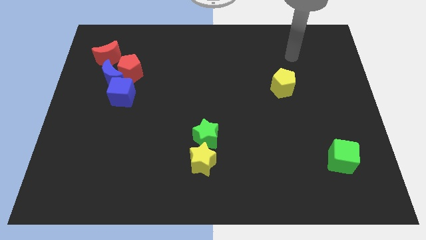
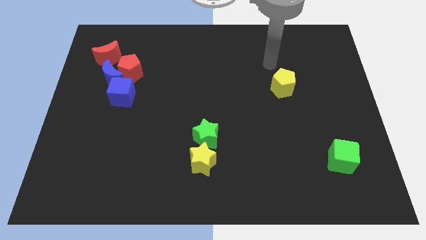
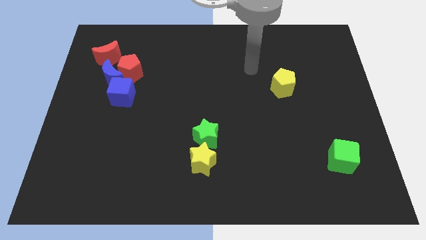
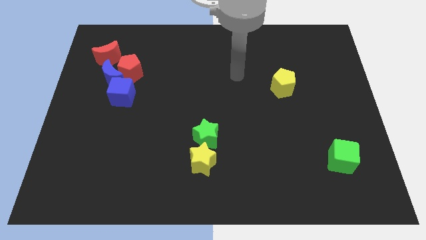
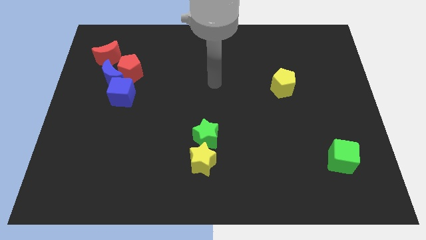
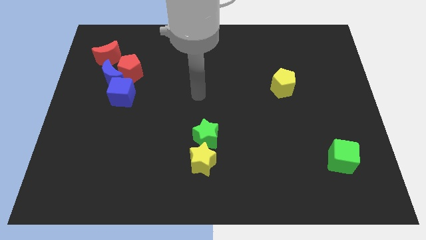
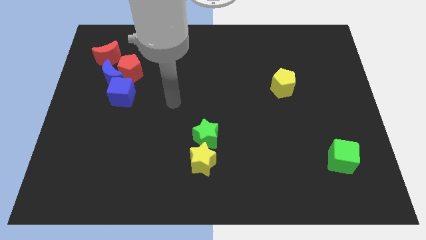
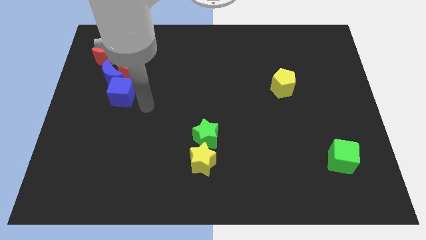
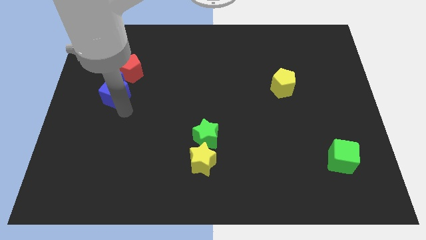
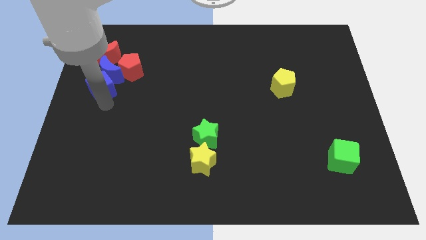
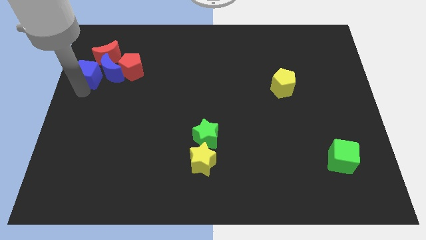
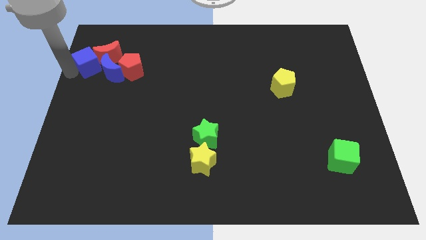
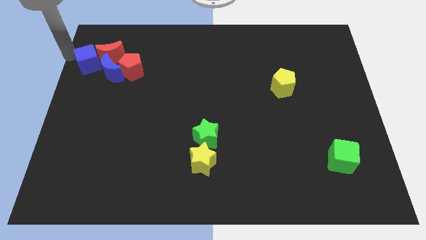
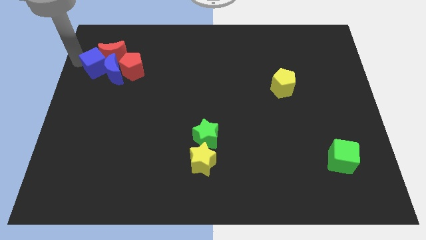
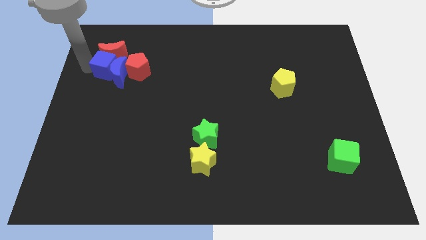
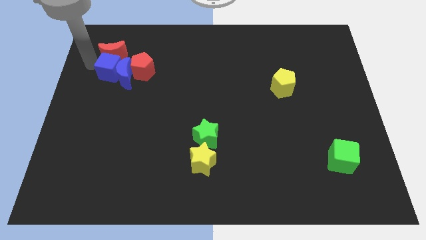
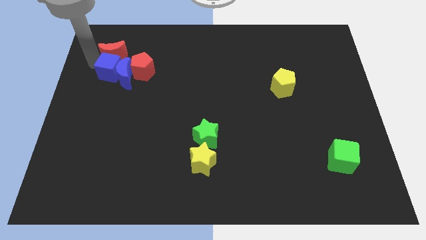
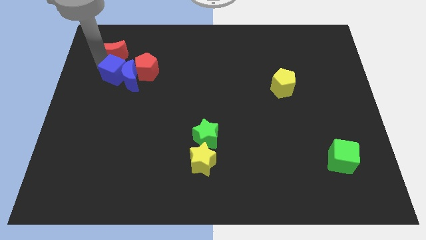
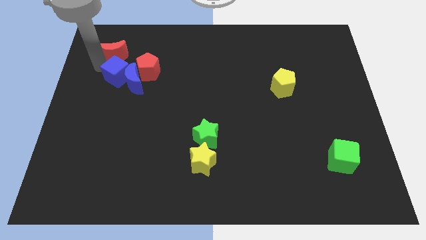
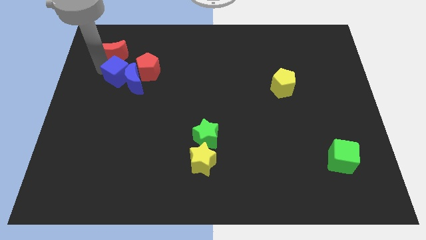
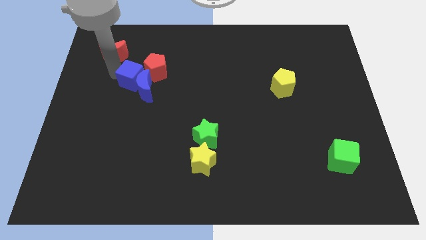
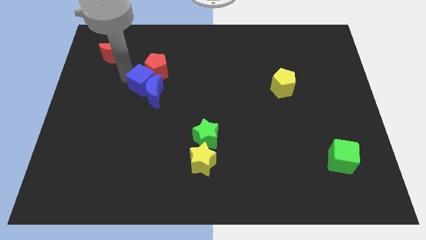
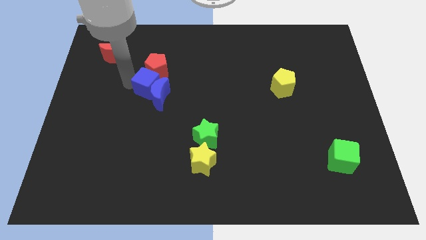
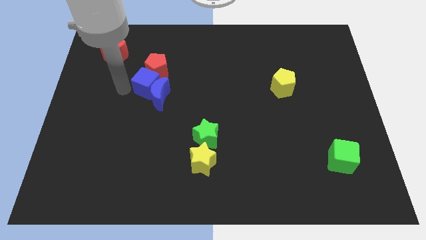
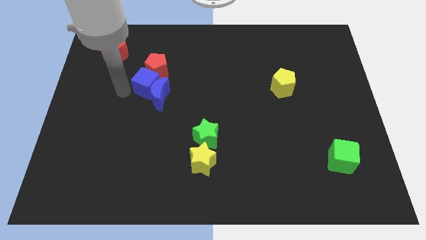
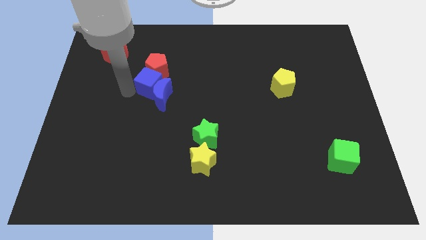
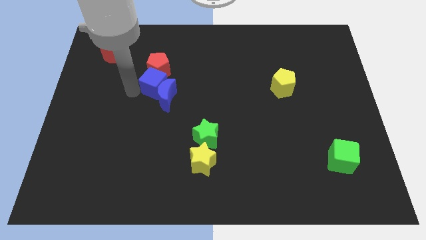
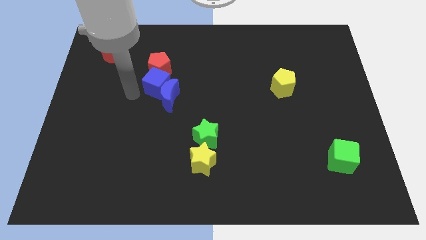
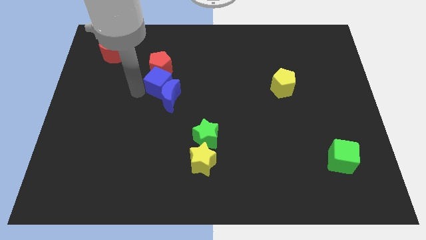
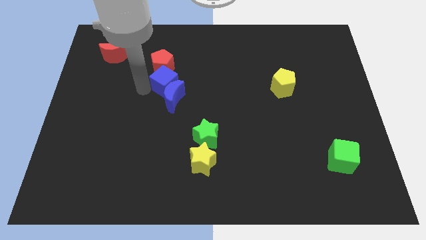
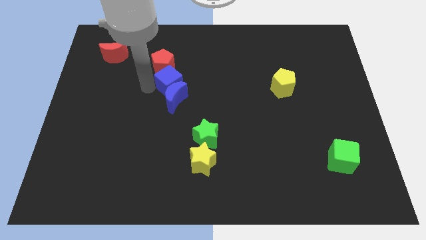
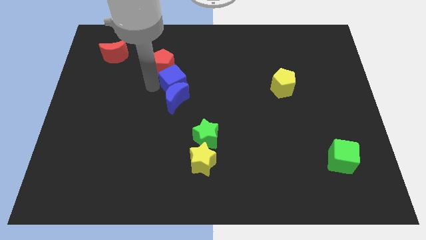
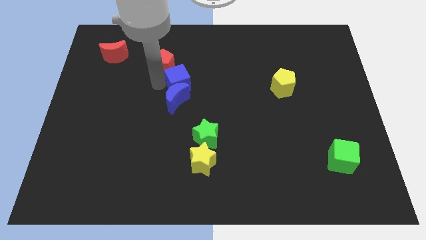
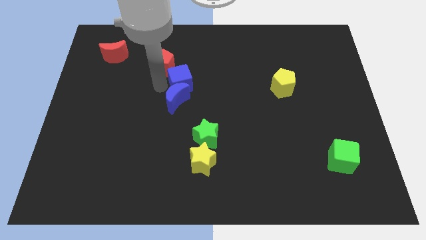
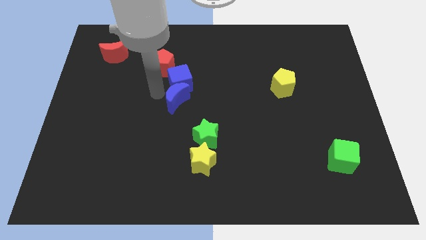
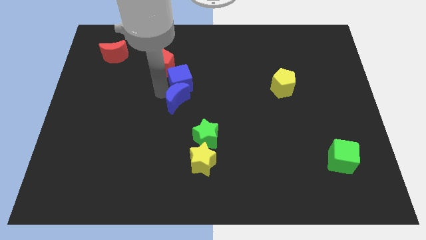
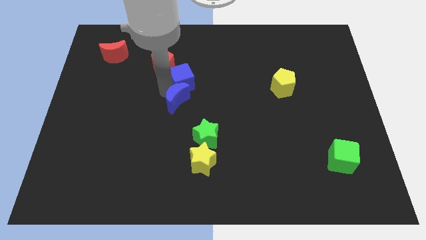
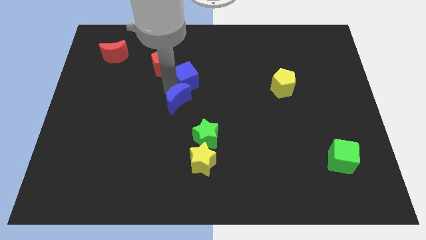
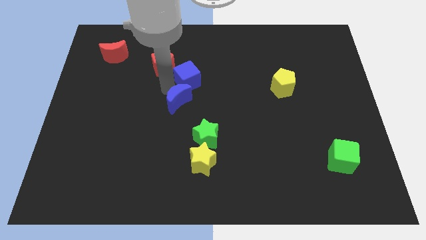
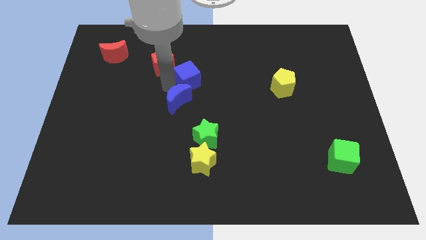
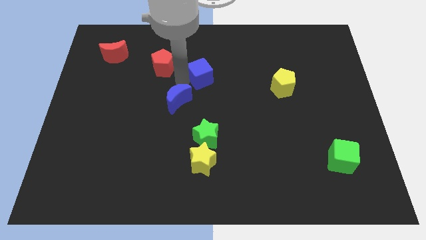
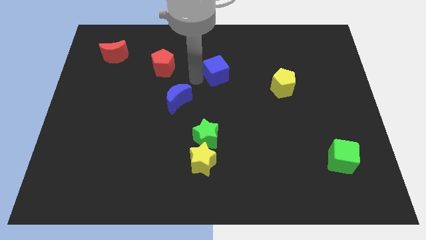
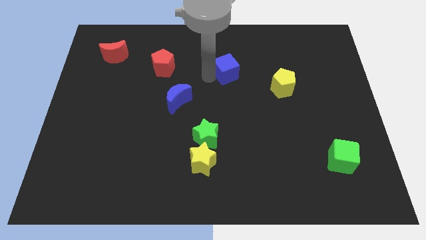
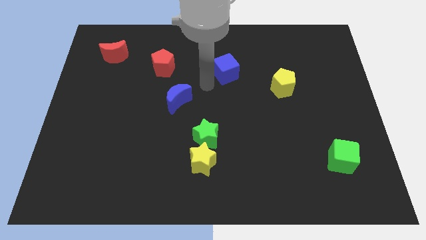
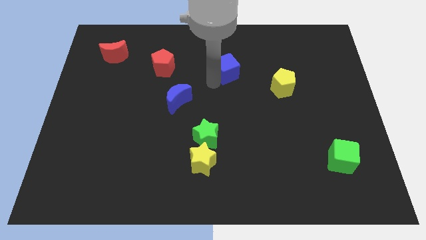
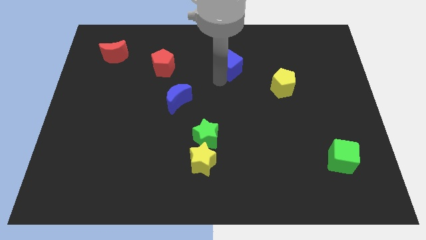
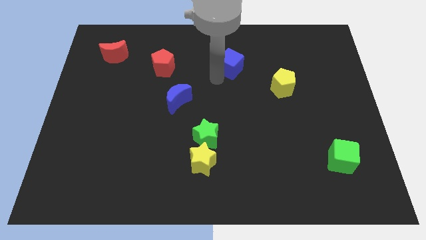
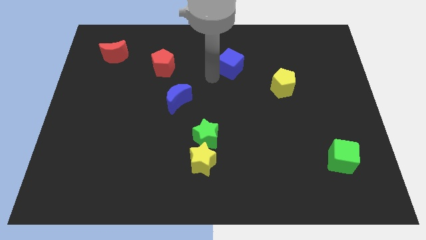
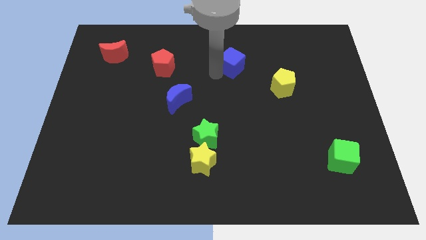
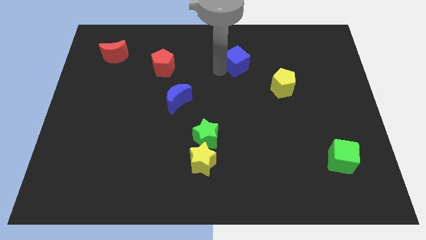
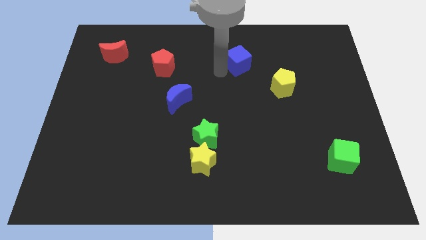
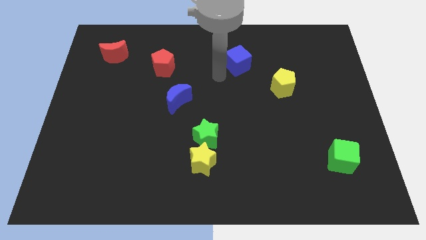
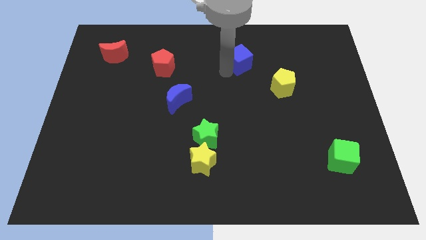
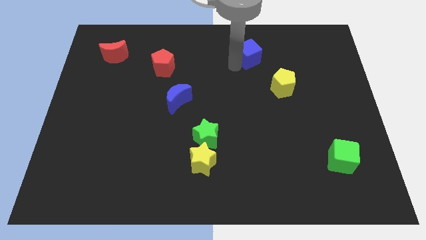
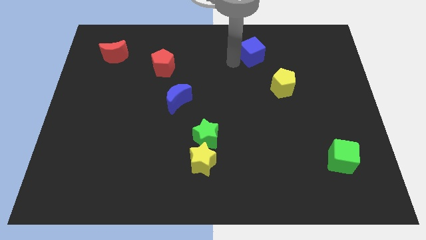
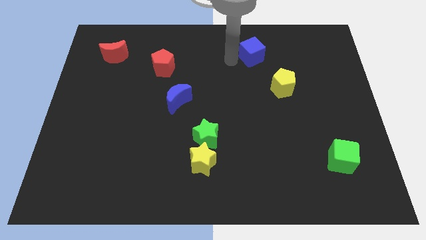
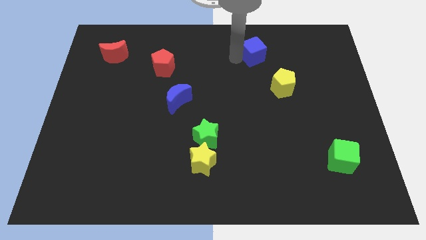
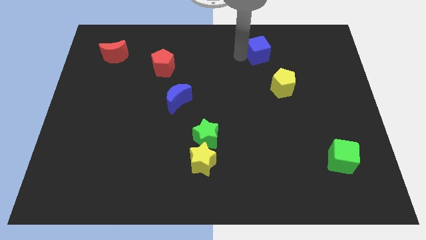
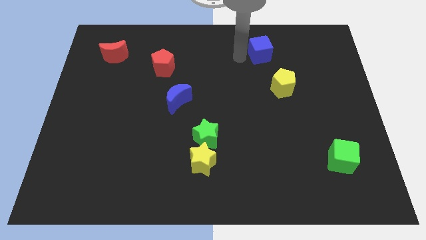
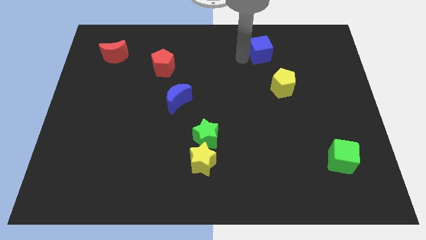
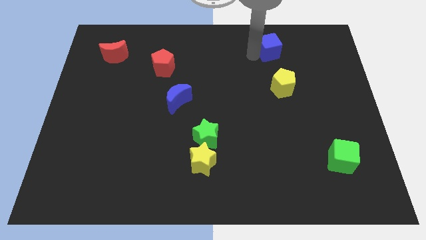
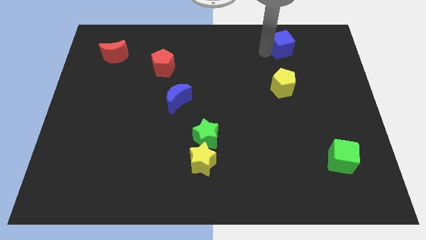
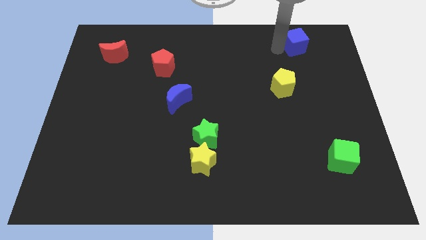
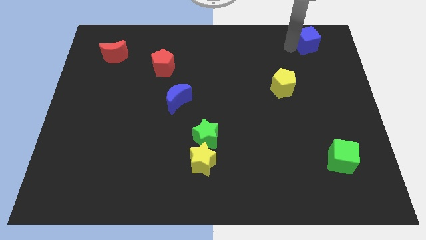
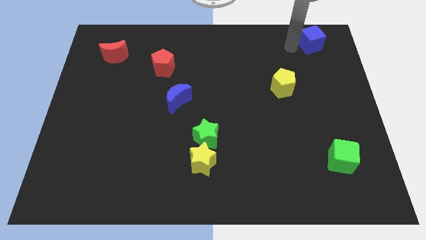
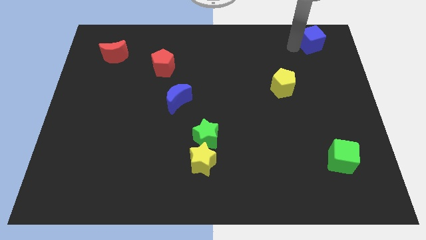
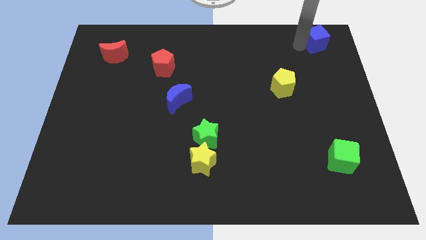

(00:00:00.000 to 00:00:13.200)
move the blue cube to the top right
